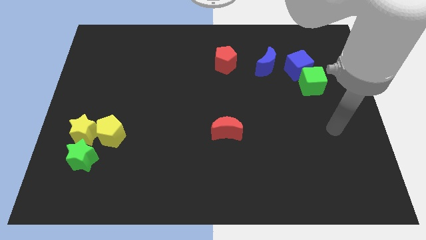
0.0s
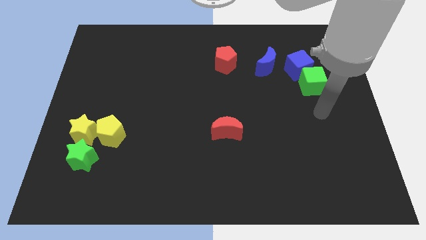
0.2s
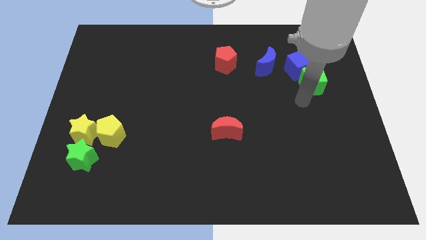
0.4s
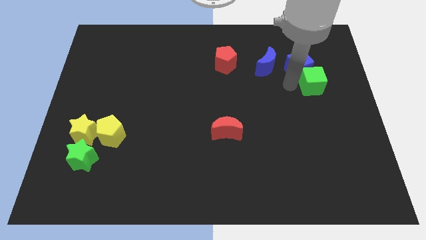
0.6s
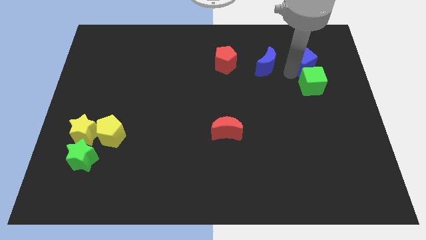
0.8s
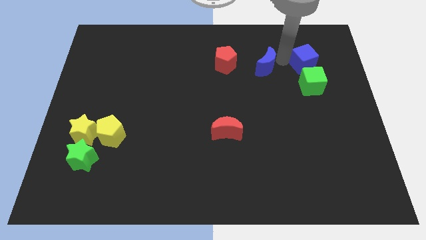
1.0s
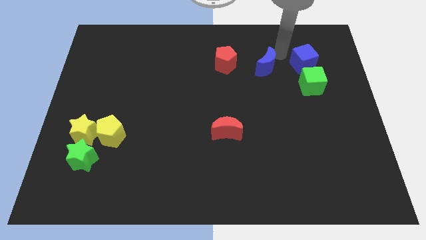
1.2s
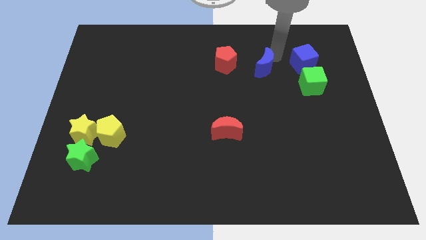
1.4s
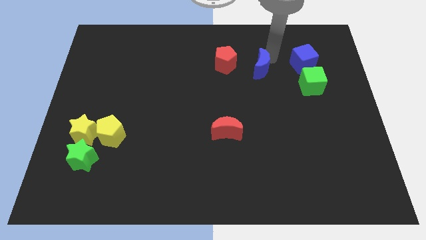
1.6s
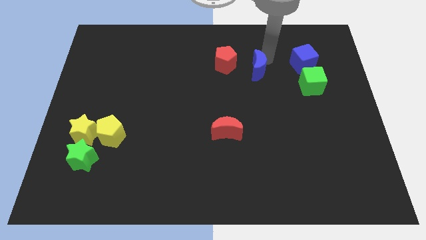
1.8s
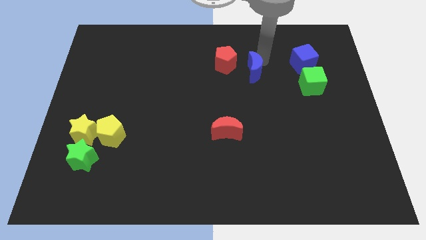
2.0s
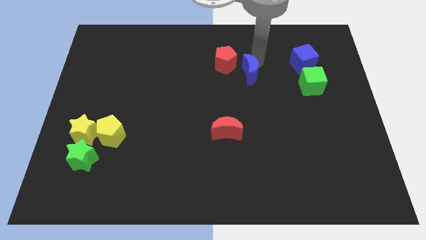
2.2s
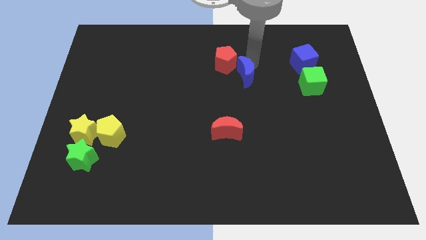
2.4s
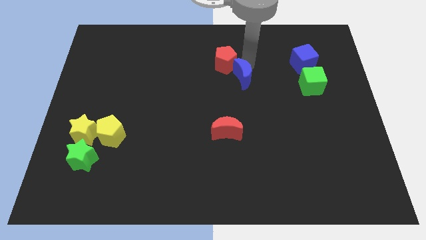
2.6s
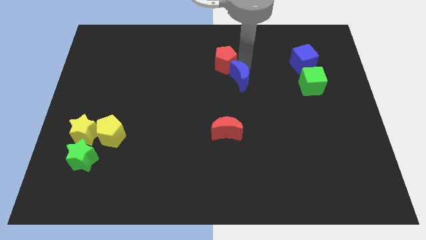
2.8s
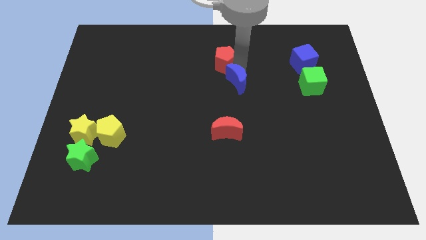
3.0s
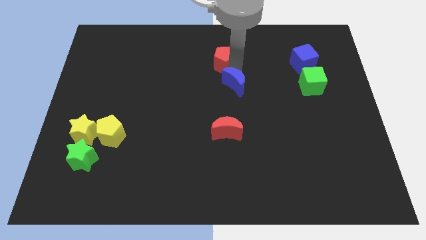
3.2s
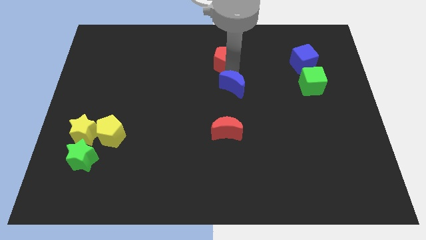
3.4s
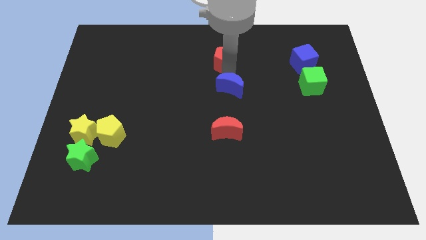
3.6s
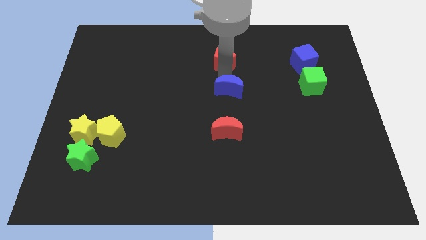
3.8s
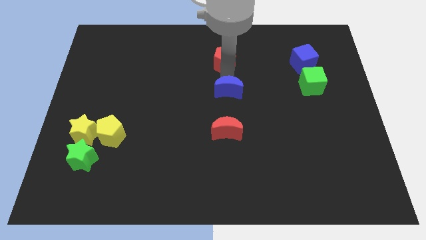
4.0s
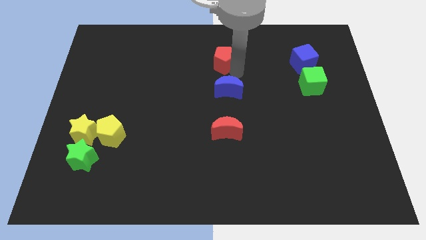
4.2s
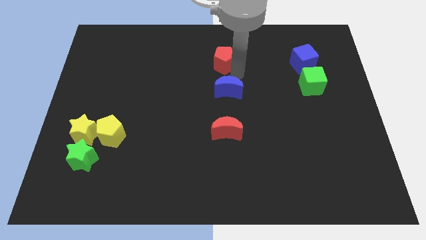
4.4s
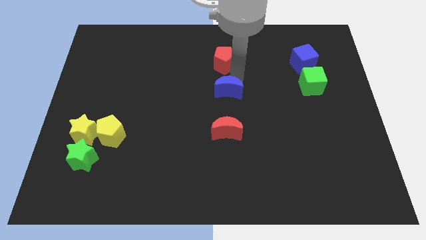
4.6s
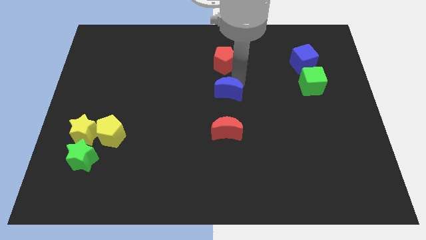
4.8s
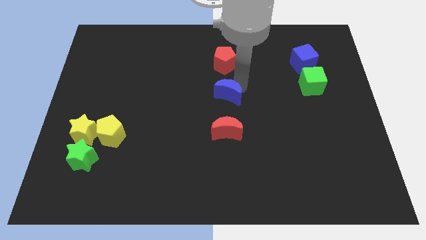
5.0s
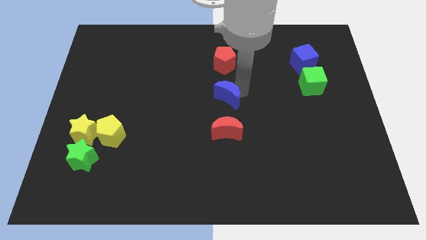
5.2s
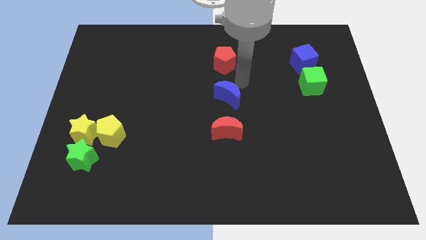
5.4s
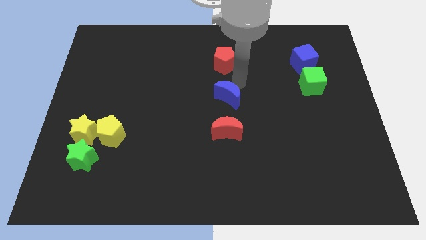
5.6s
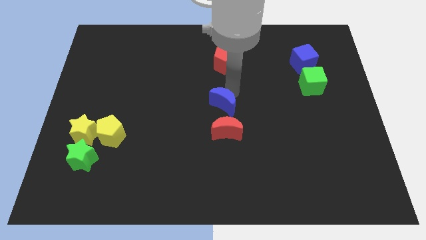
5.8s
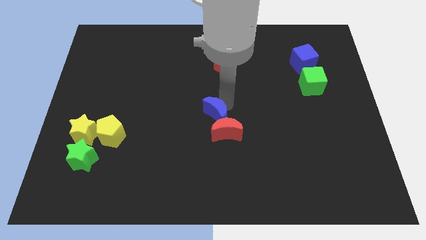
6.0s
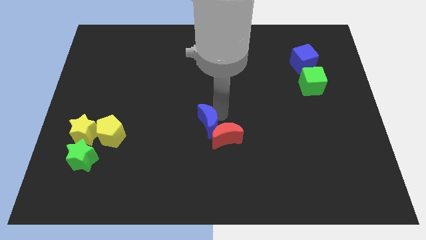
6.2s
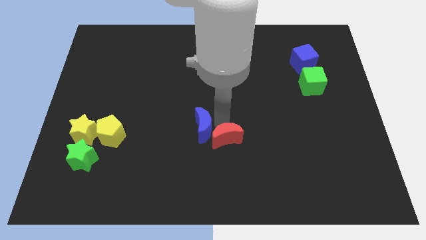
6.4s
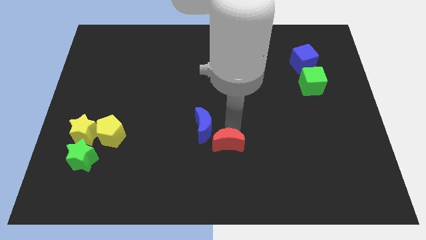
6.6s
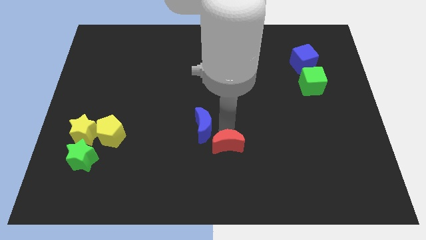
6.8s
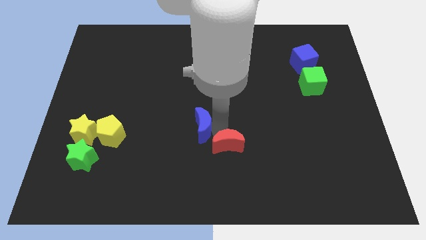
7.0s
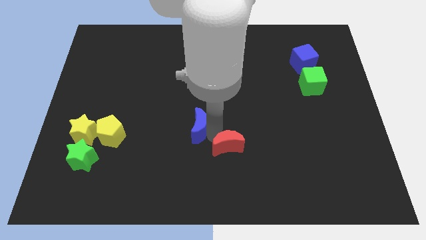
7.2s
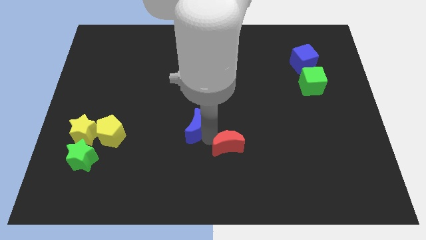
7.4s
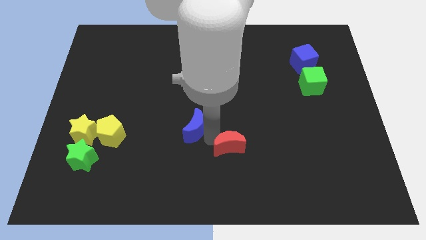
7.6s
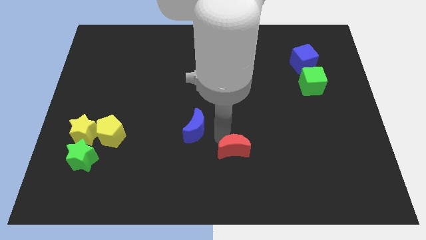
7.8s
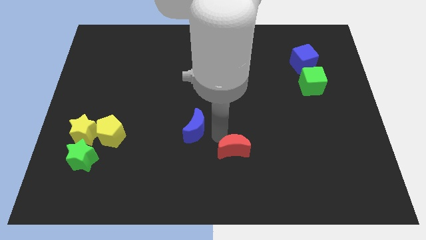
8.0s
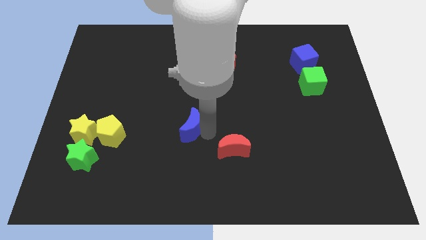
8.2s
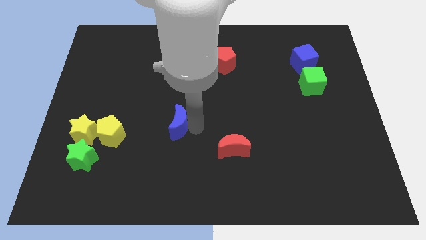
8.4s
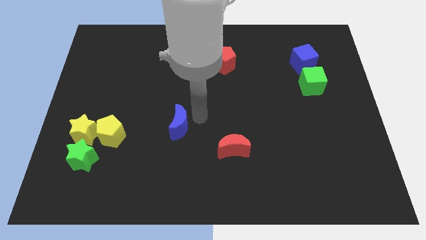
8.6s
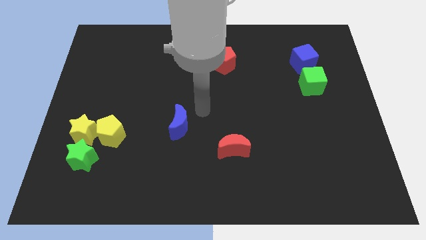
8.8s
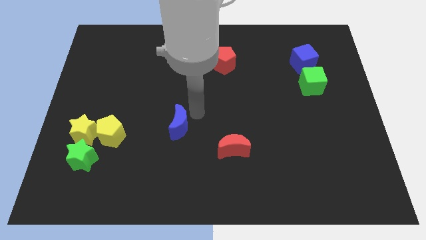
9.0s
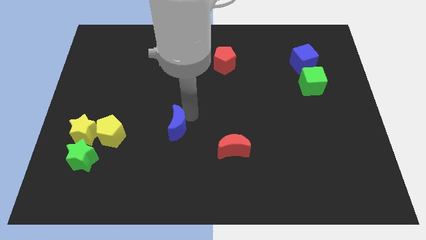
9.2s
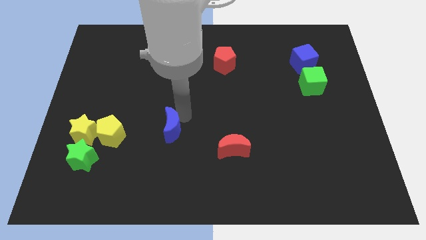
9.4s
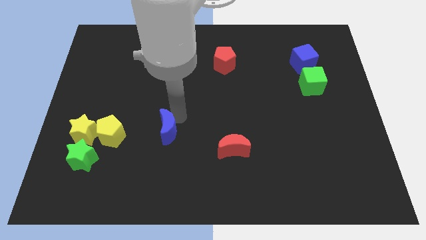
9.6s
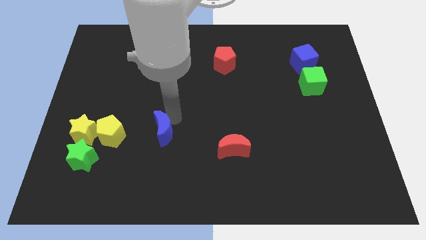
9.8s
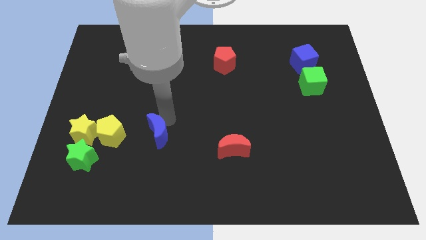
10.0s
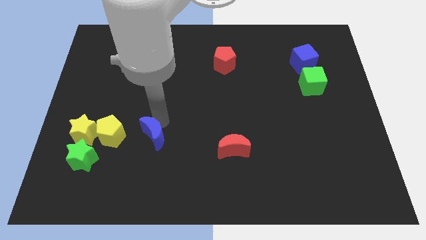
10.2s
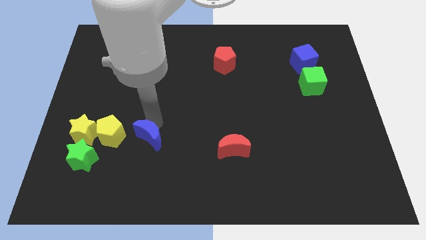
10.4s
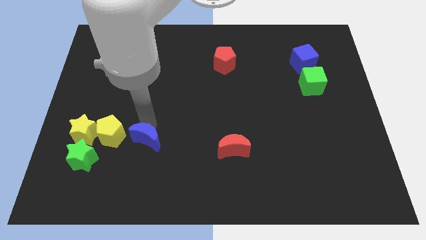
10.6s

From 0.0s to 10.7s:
put the blue moon to the bottom right of the yellow pentagon

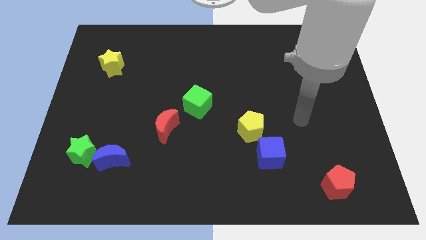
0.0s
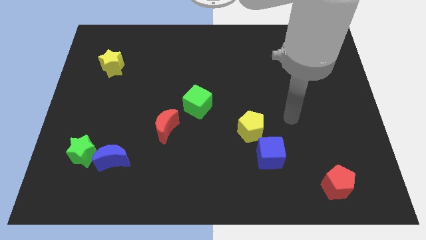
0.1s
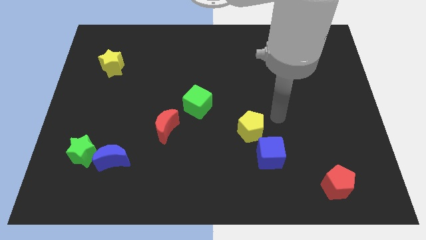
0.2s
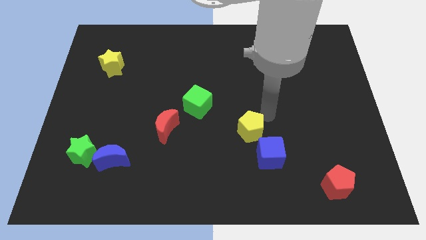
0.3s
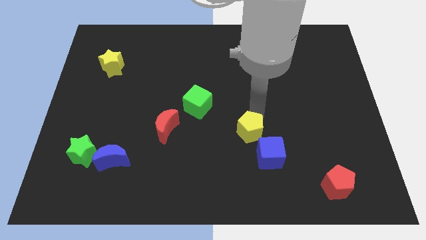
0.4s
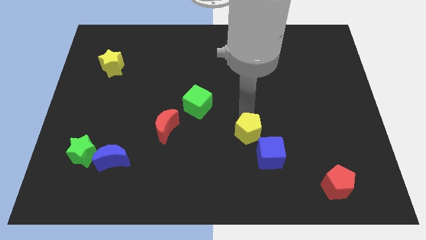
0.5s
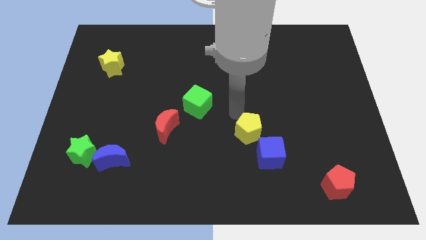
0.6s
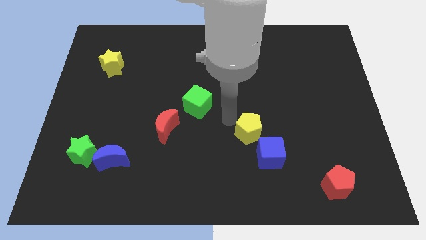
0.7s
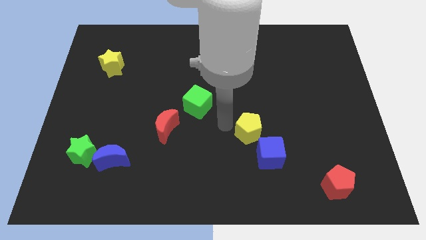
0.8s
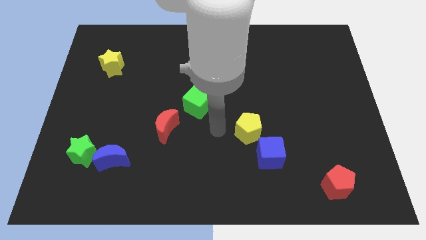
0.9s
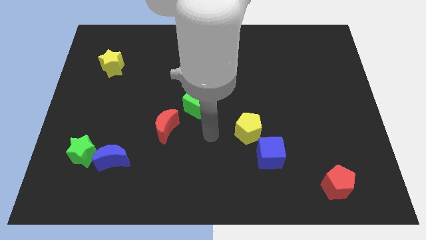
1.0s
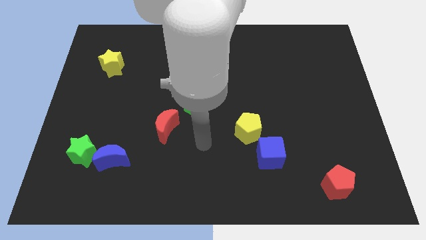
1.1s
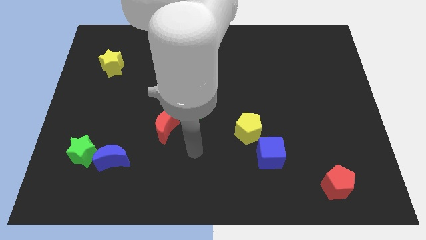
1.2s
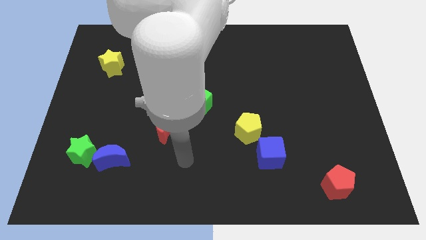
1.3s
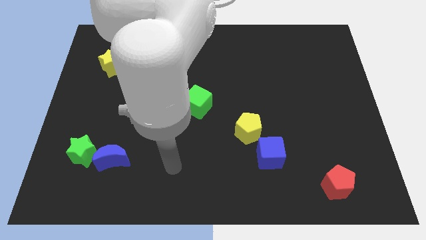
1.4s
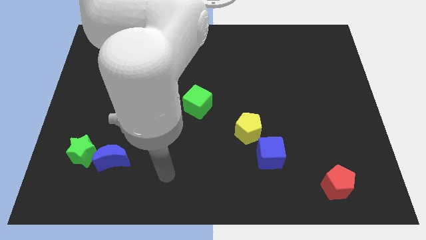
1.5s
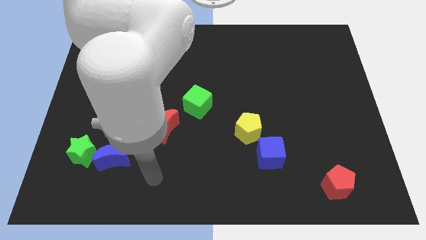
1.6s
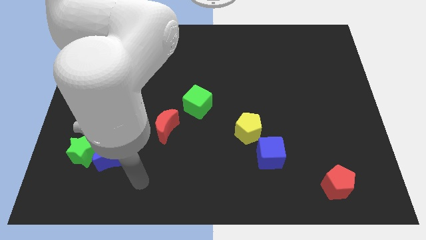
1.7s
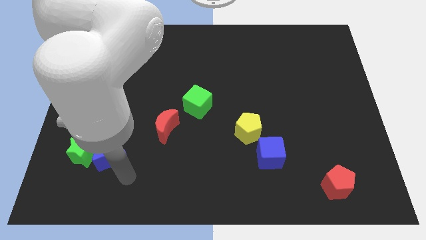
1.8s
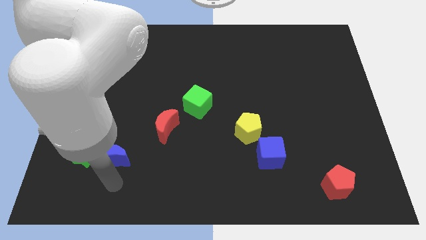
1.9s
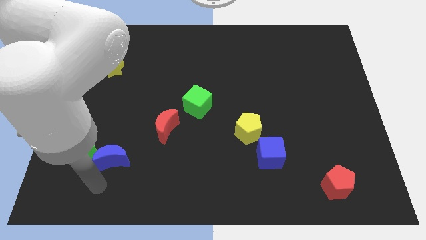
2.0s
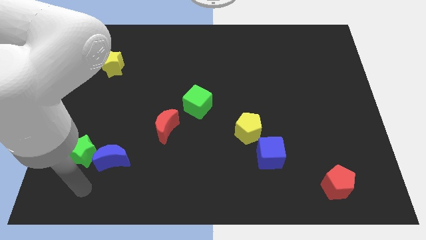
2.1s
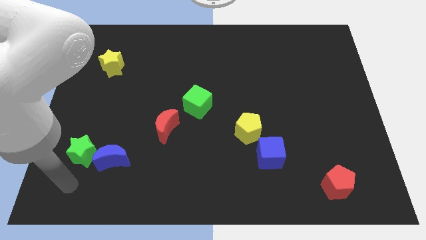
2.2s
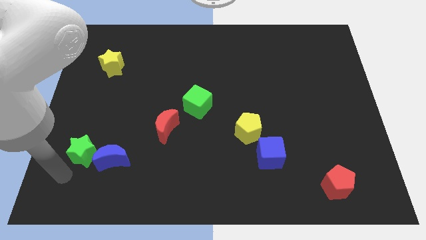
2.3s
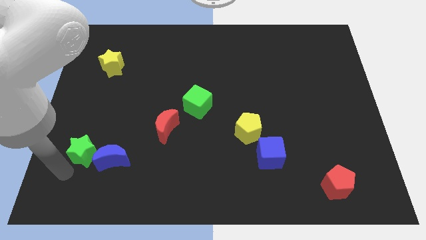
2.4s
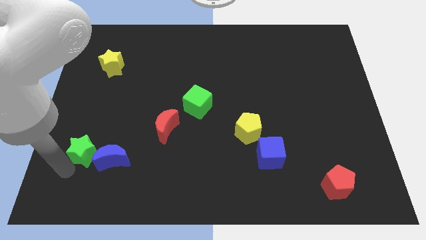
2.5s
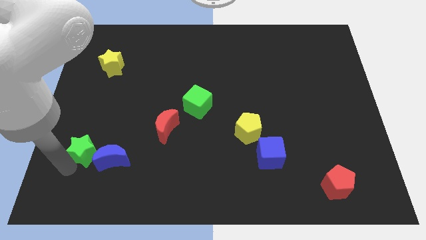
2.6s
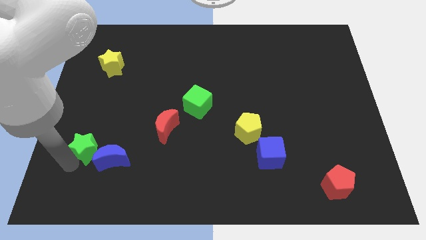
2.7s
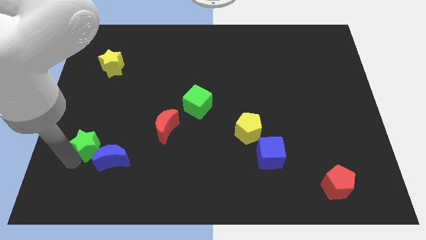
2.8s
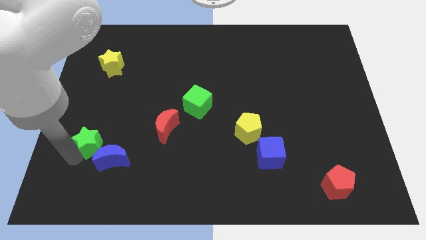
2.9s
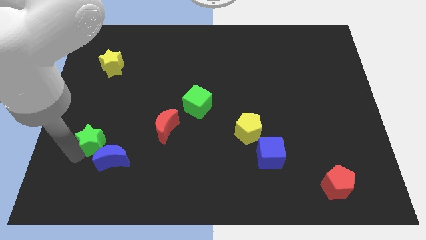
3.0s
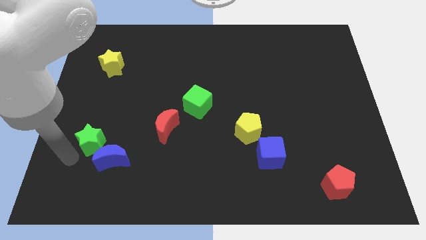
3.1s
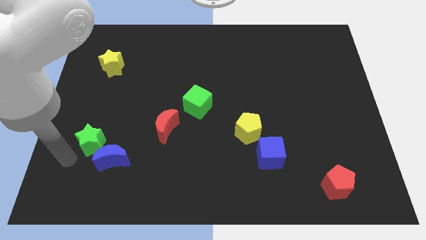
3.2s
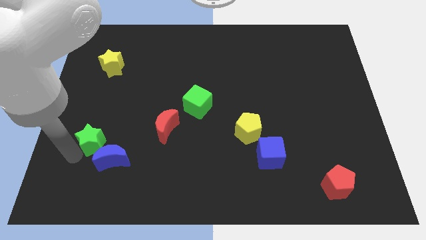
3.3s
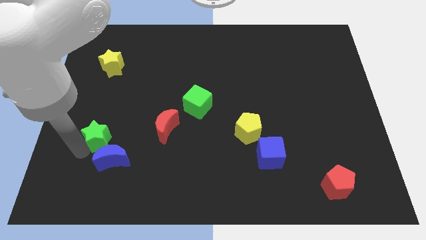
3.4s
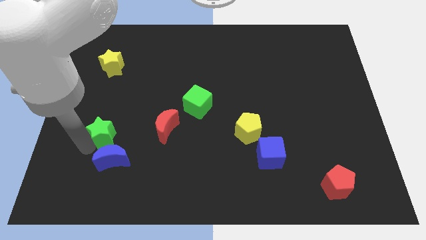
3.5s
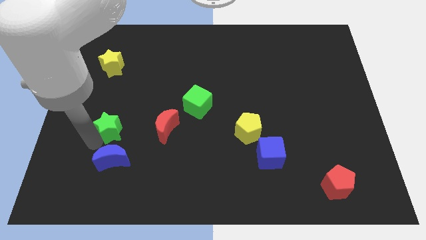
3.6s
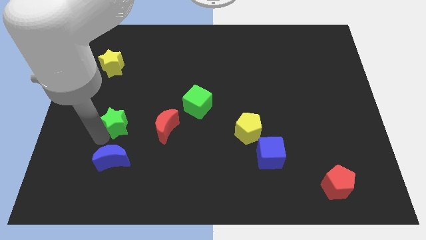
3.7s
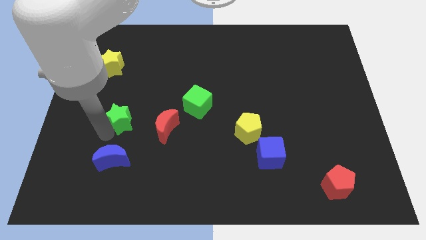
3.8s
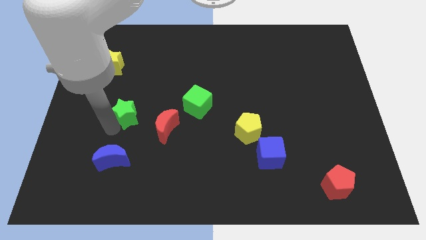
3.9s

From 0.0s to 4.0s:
slide the green star to the top left side of the red moon
